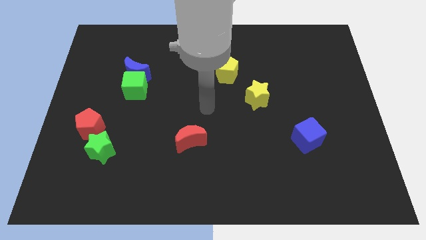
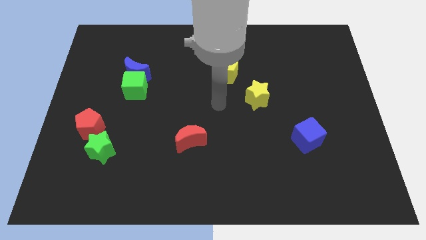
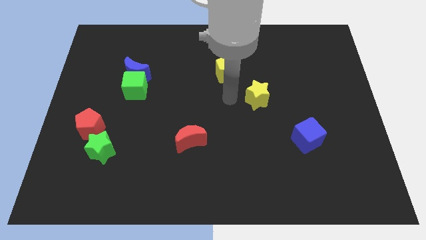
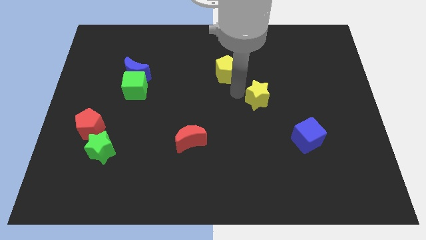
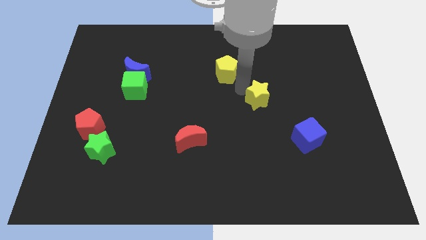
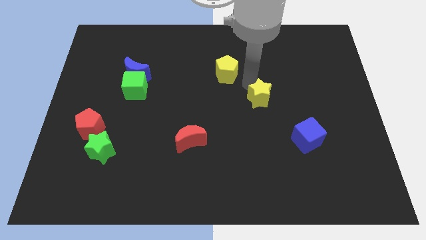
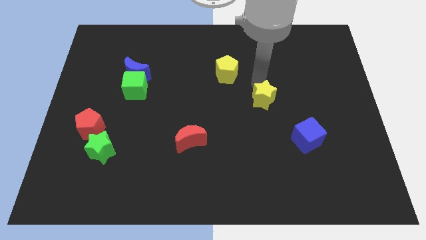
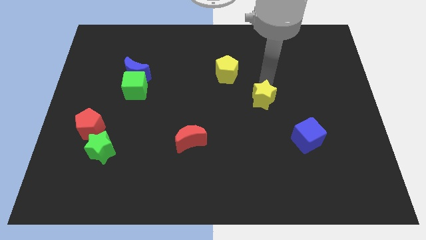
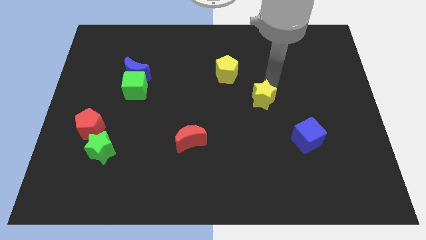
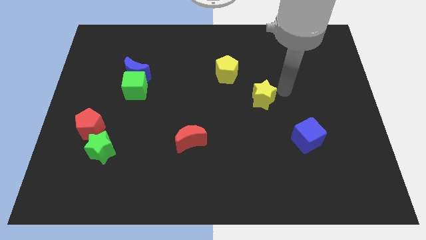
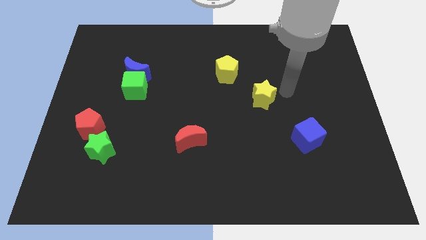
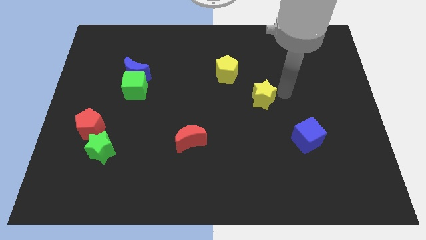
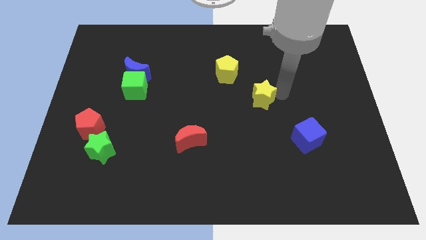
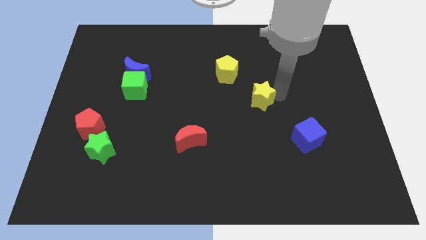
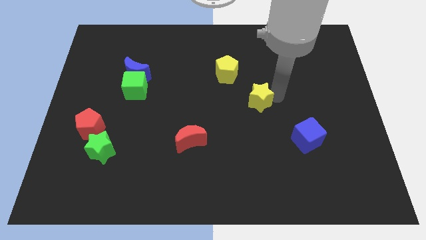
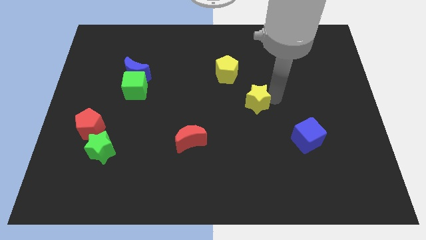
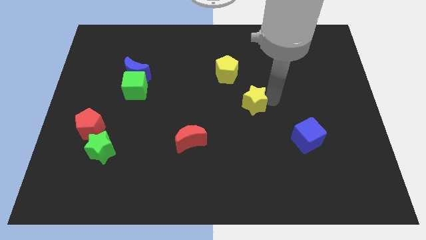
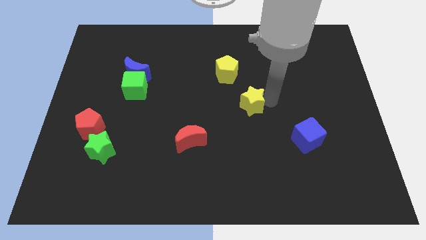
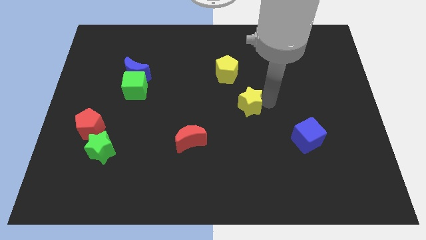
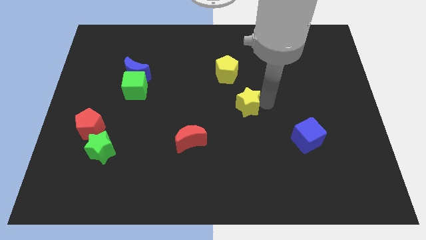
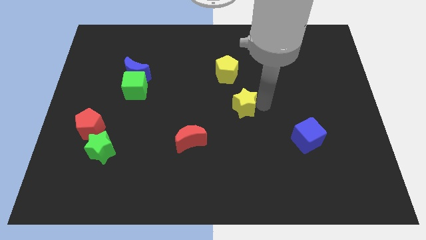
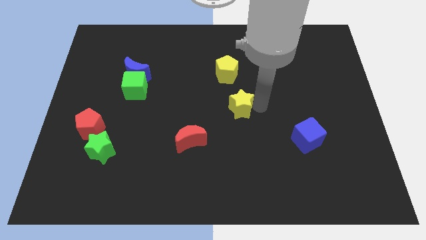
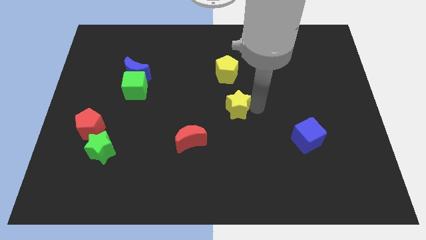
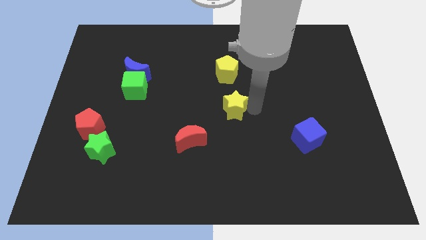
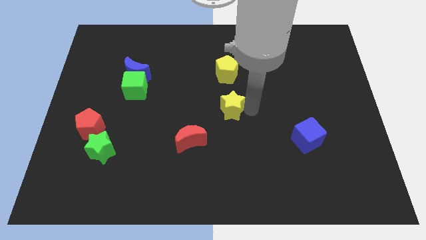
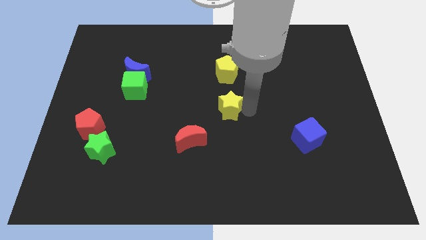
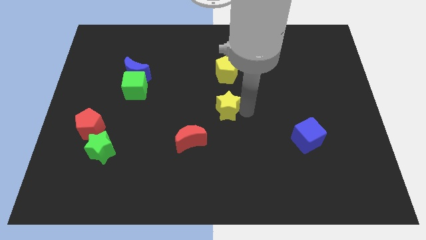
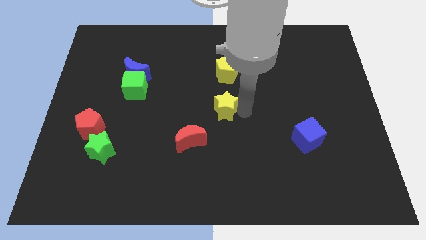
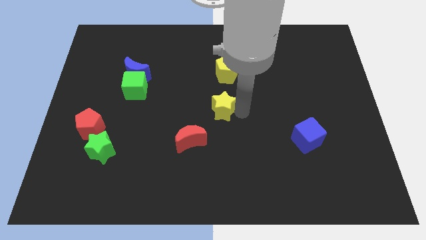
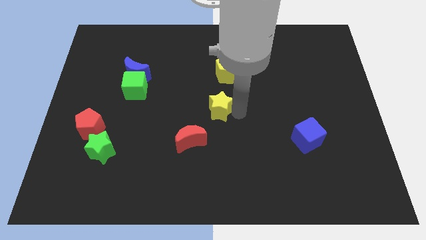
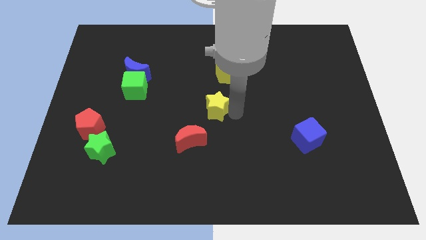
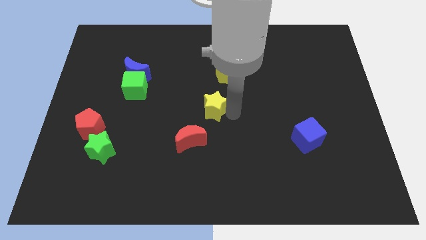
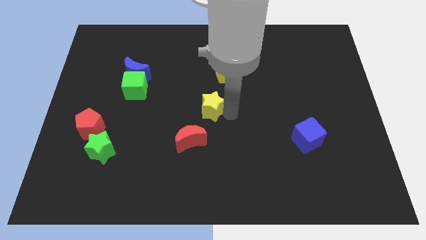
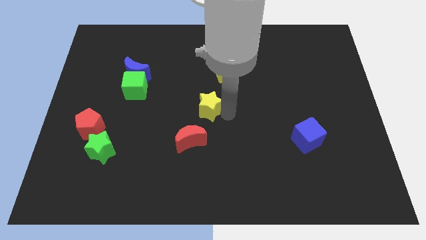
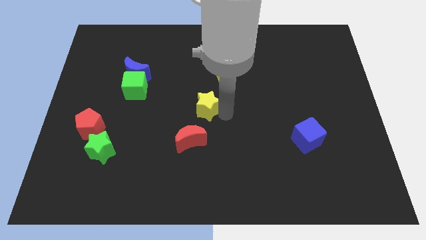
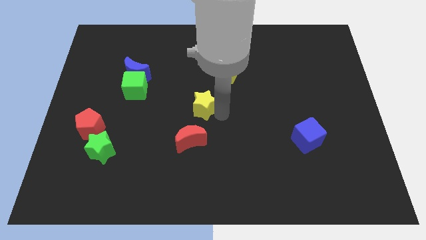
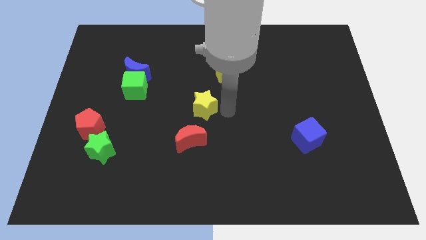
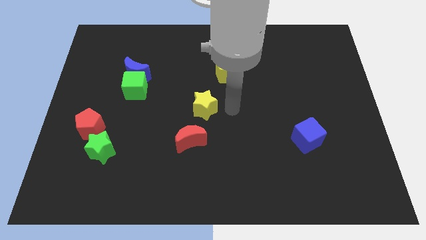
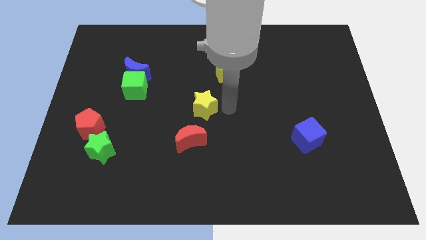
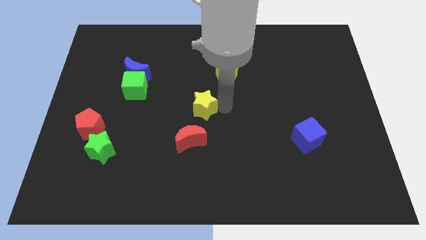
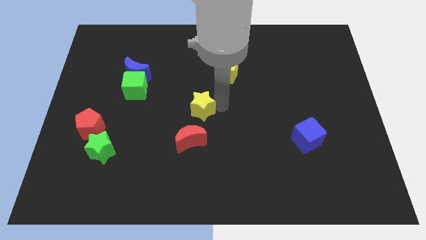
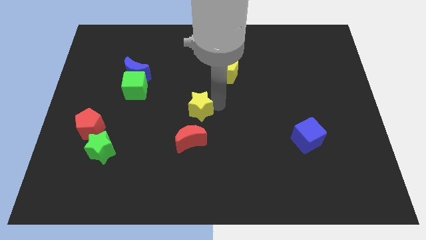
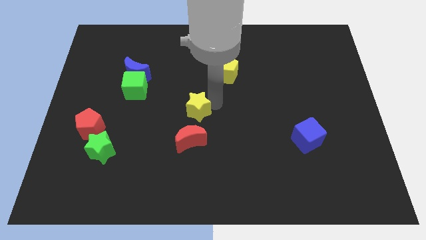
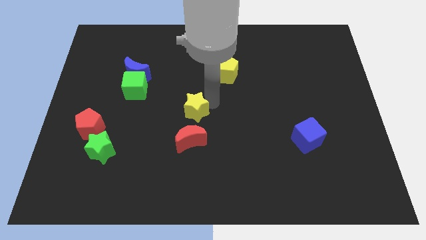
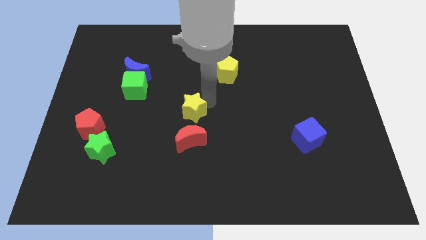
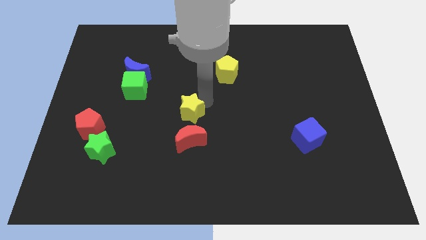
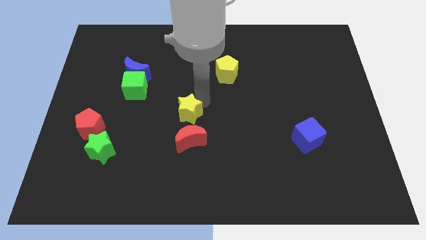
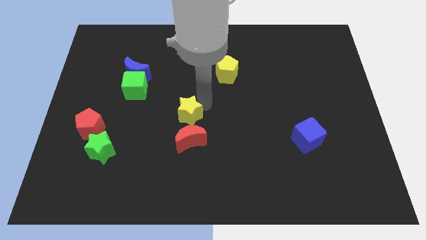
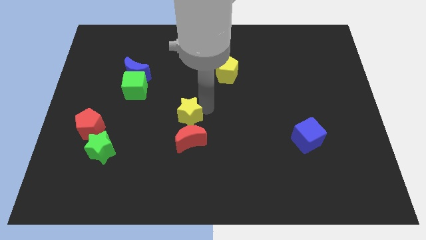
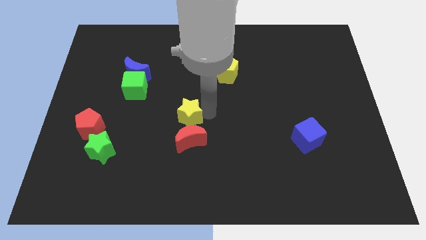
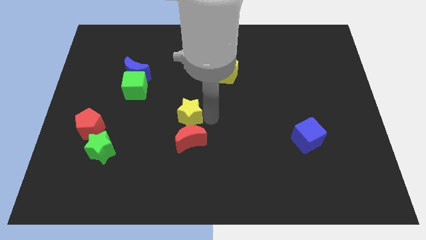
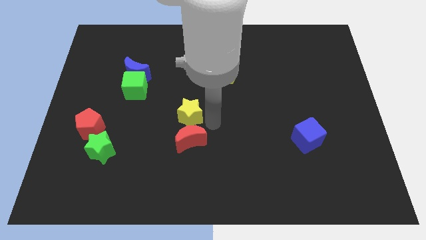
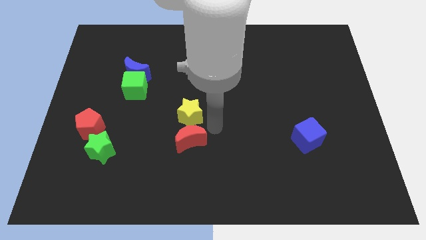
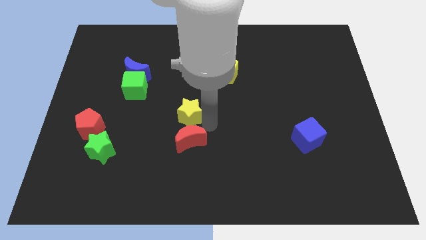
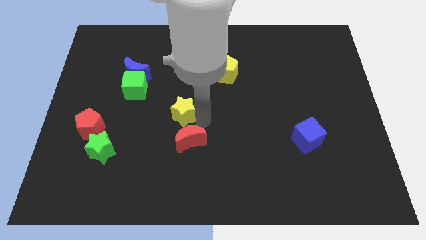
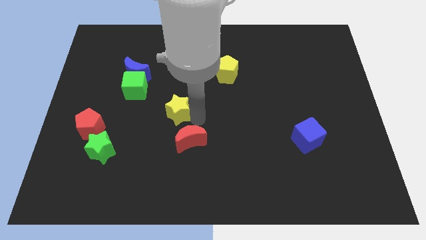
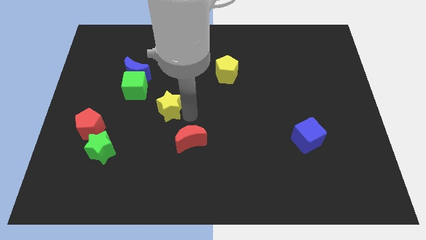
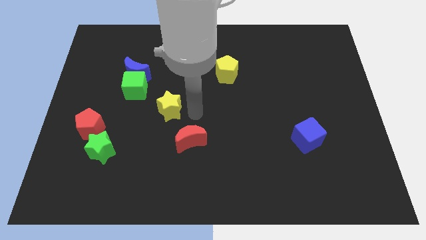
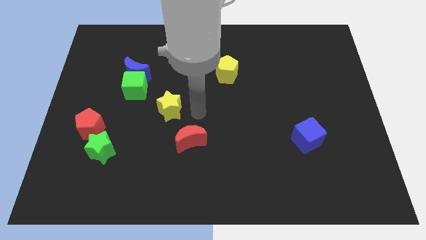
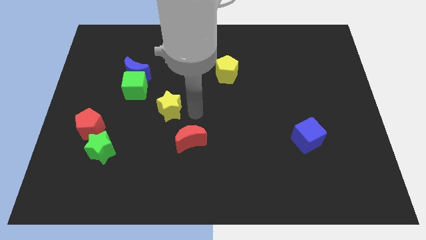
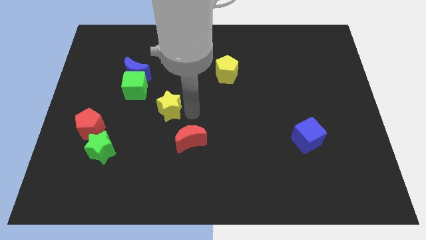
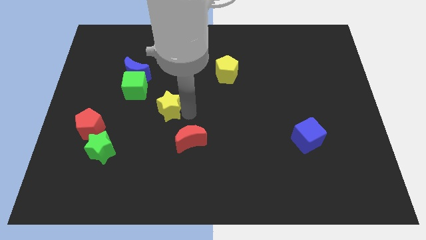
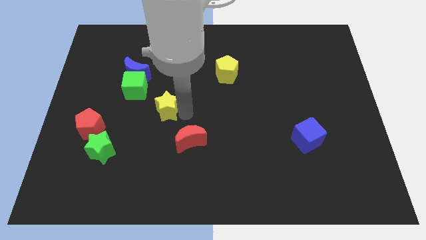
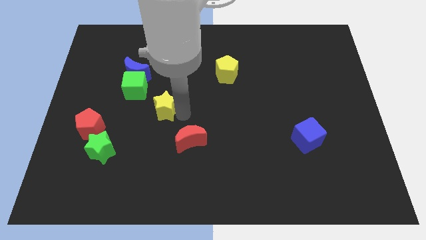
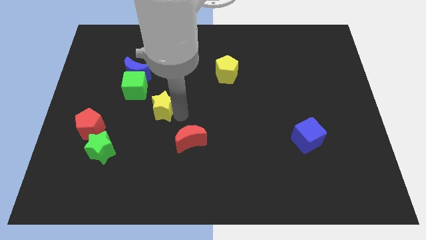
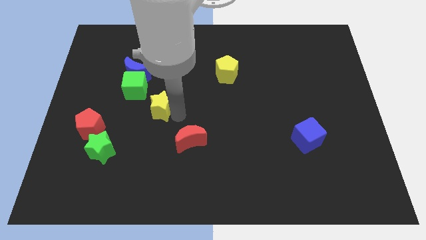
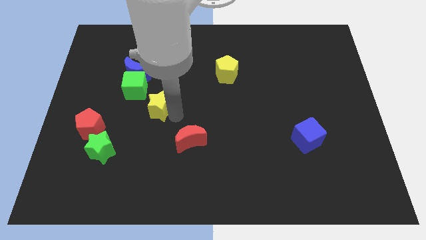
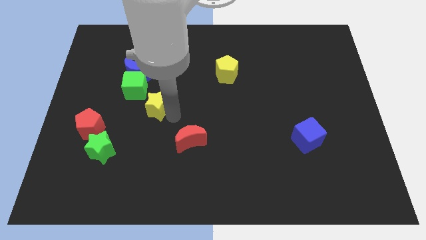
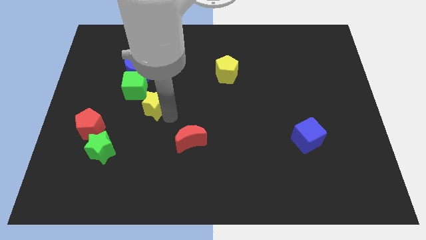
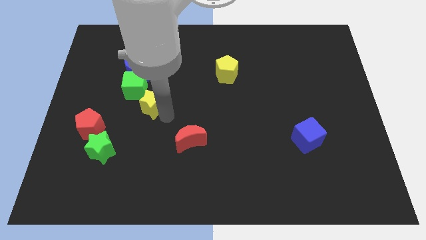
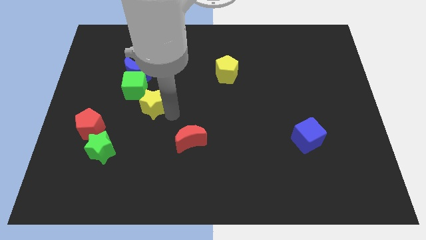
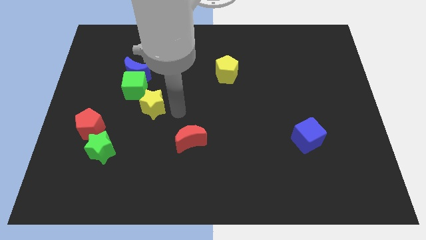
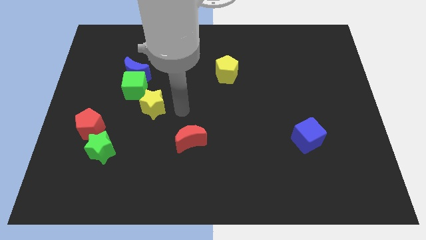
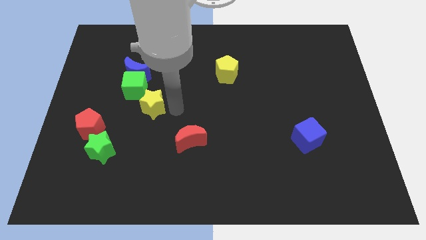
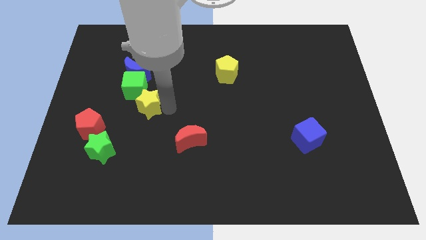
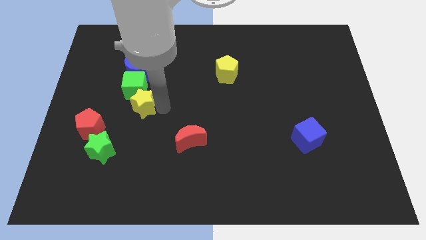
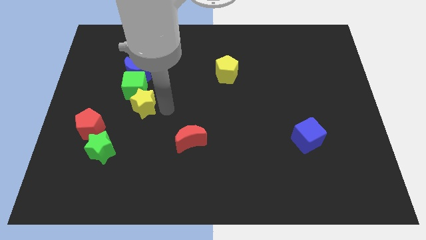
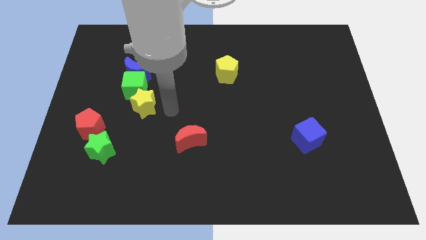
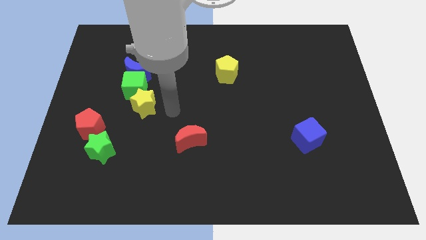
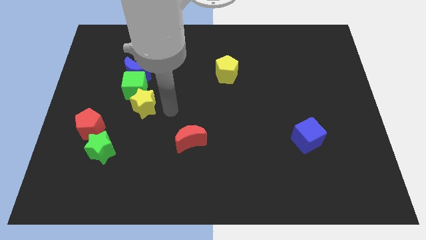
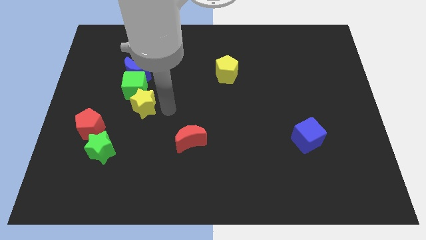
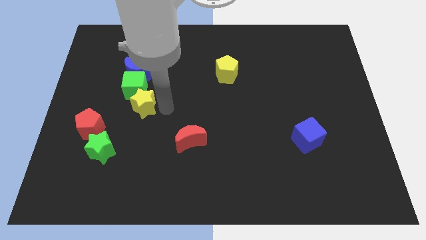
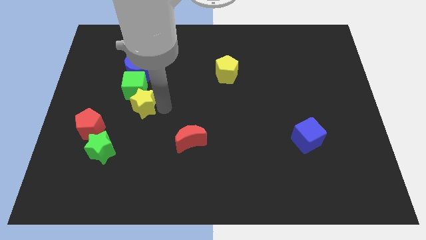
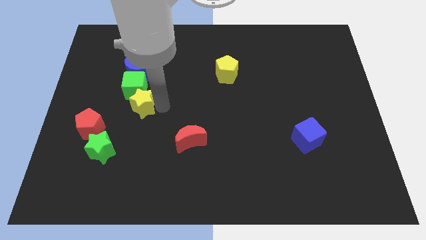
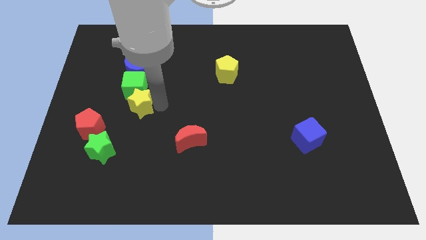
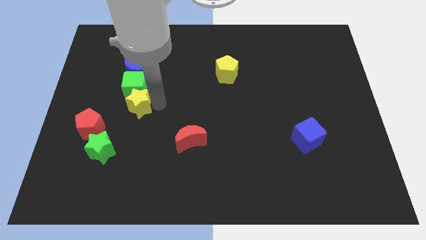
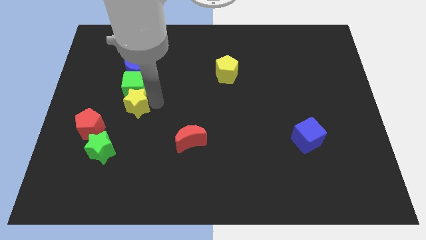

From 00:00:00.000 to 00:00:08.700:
slide the yellow star to the bottom left of the green cube
